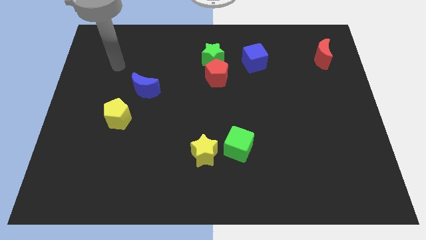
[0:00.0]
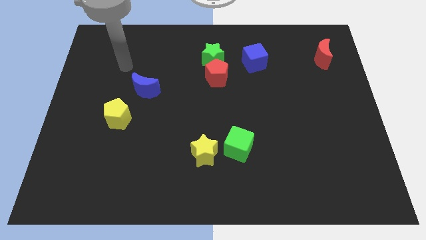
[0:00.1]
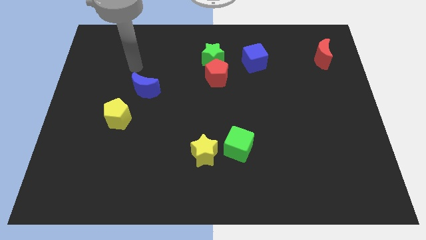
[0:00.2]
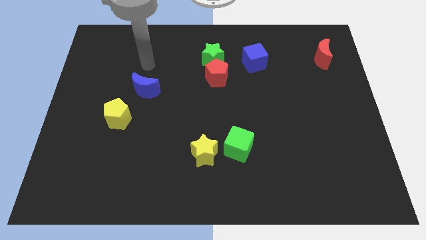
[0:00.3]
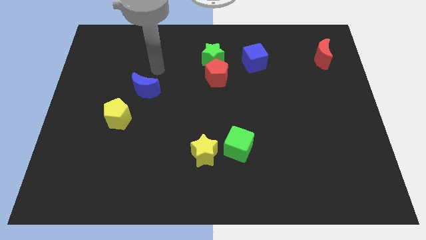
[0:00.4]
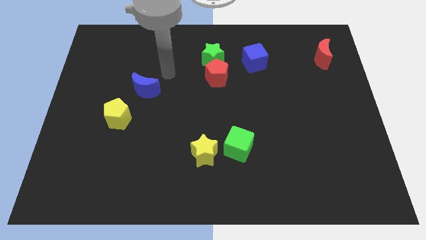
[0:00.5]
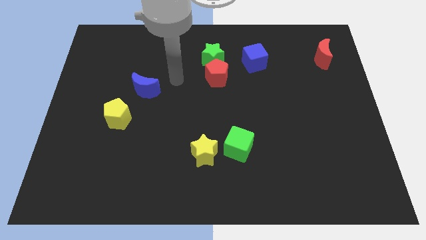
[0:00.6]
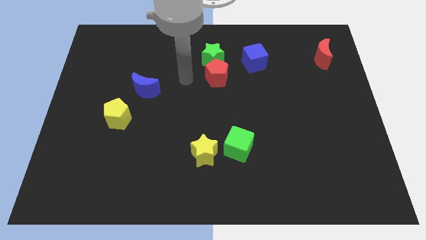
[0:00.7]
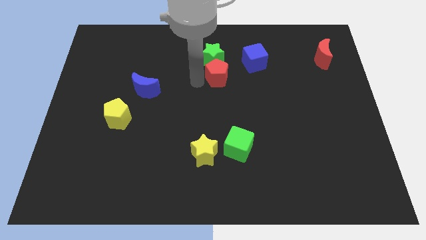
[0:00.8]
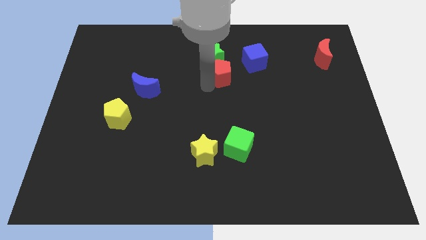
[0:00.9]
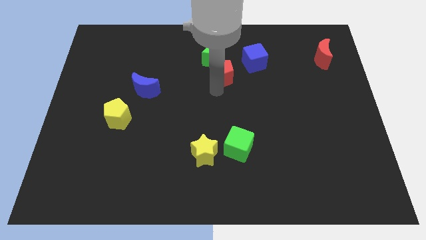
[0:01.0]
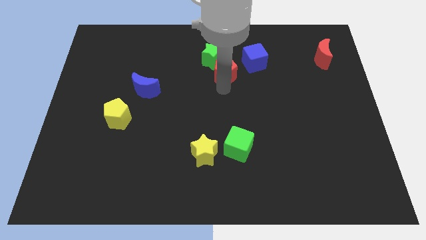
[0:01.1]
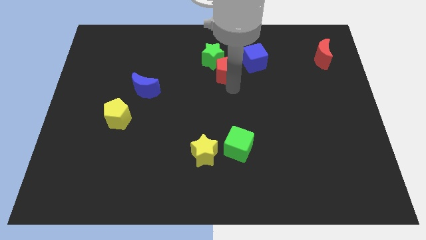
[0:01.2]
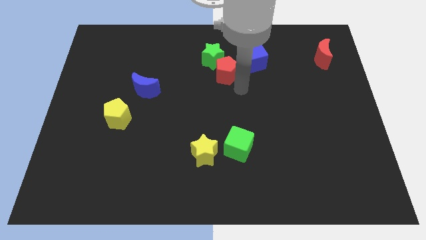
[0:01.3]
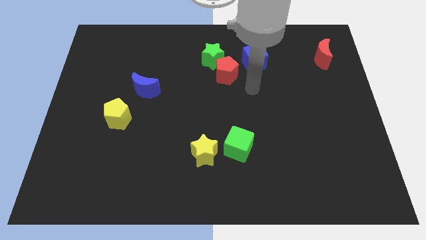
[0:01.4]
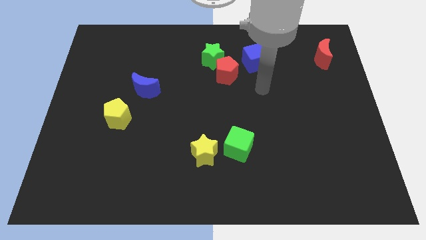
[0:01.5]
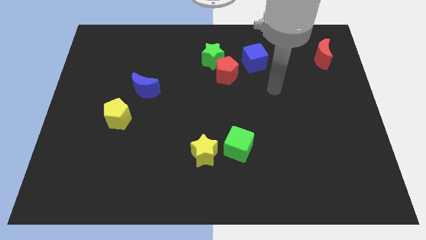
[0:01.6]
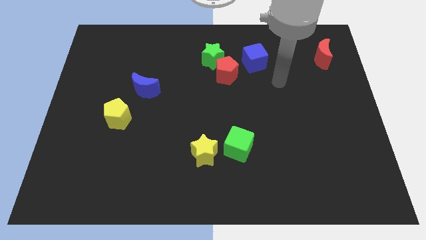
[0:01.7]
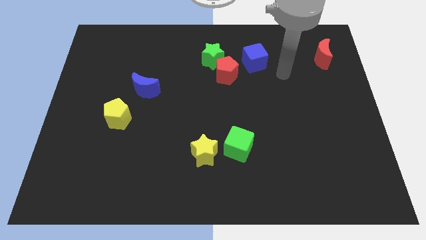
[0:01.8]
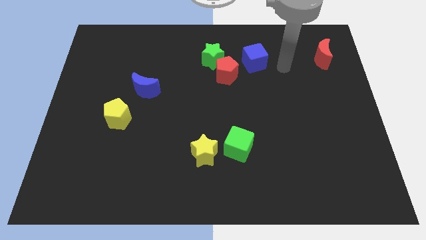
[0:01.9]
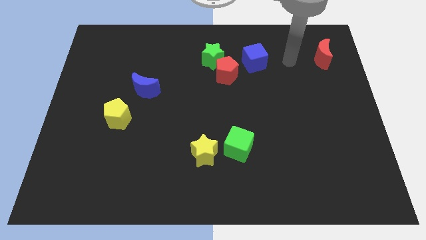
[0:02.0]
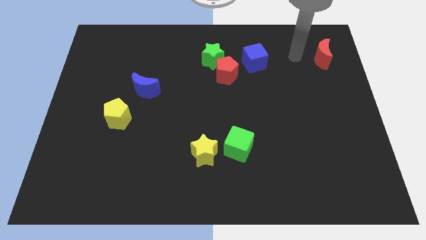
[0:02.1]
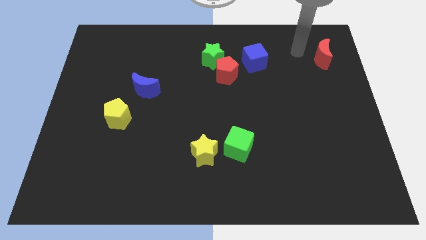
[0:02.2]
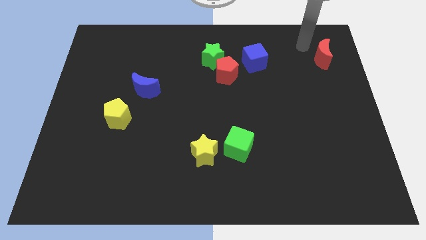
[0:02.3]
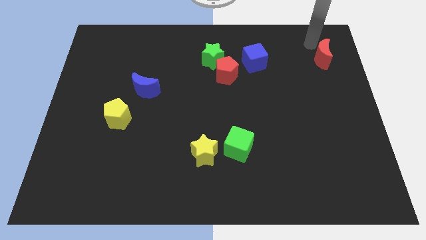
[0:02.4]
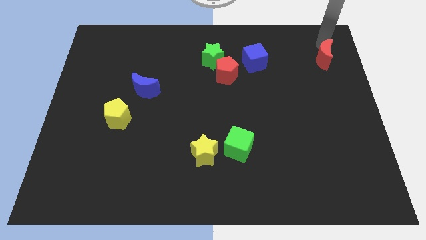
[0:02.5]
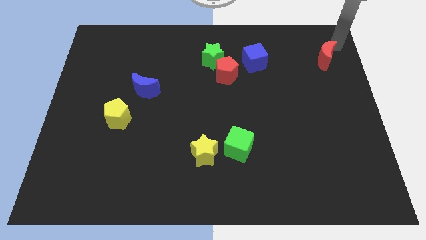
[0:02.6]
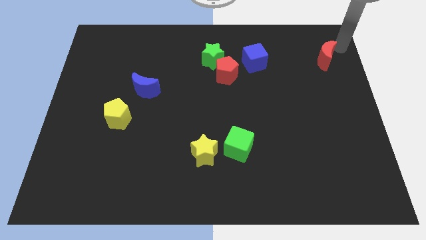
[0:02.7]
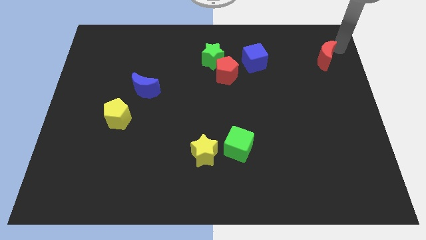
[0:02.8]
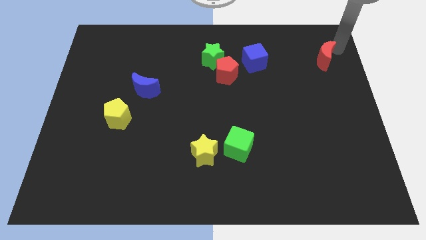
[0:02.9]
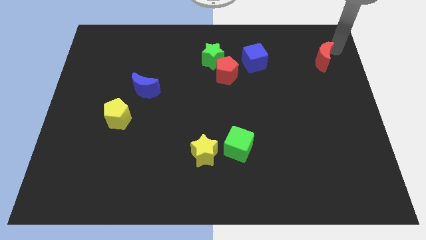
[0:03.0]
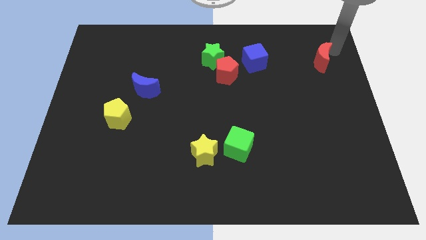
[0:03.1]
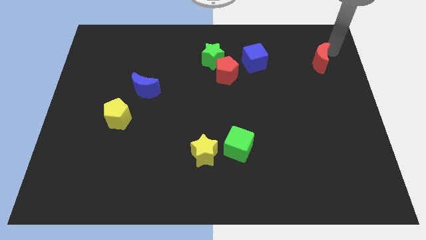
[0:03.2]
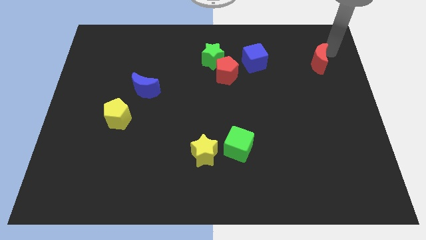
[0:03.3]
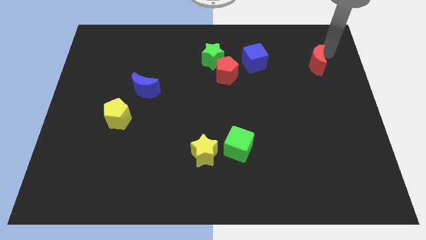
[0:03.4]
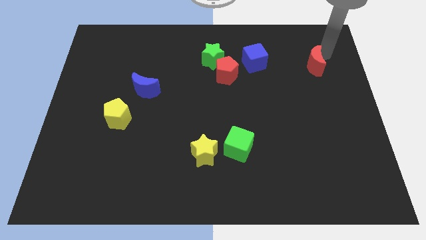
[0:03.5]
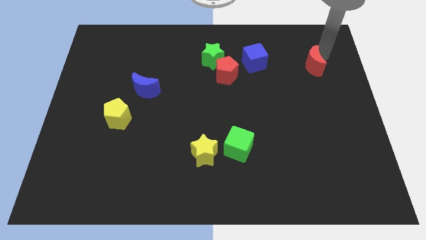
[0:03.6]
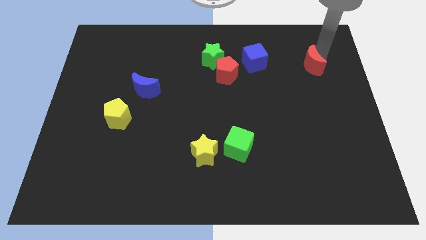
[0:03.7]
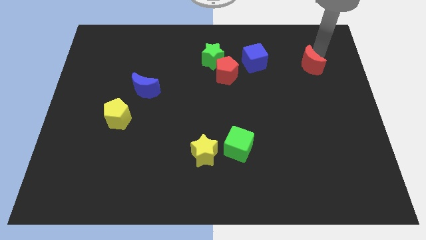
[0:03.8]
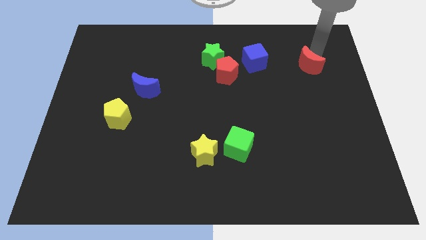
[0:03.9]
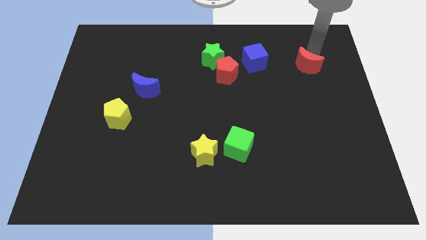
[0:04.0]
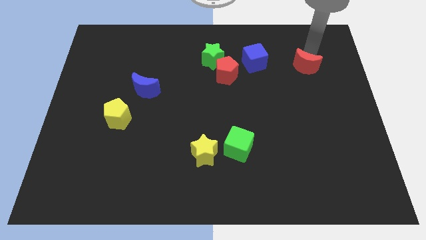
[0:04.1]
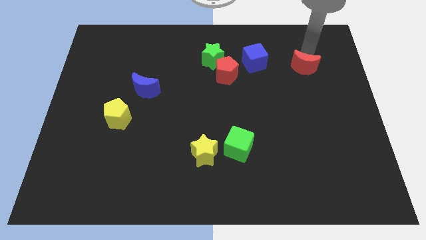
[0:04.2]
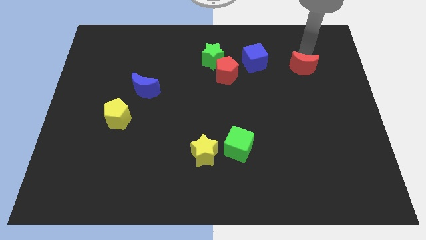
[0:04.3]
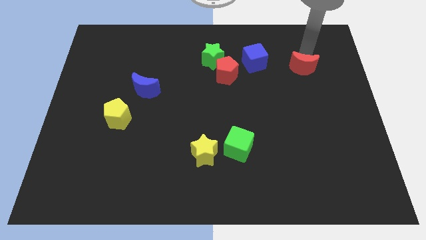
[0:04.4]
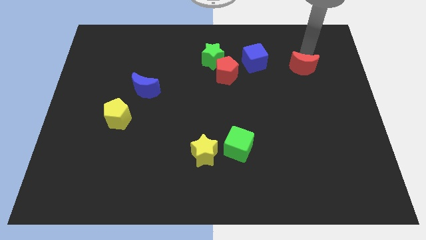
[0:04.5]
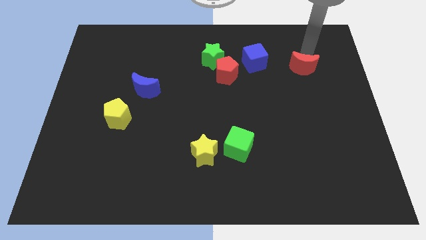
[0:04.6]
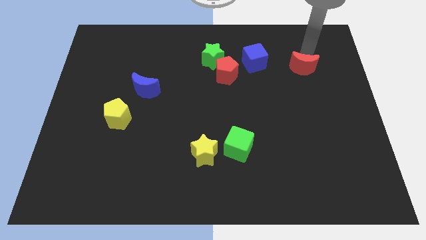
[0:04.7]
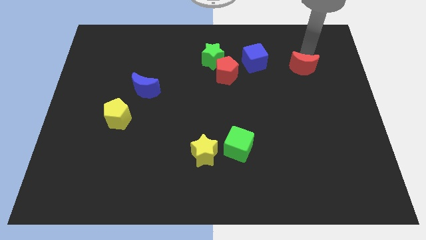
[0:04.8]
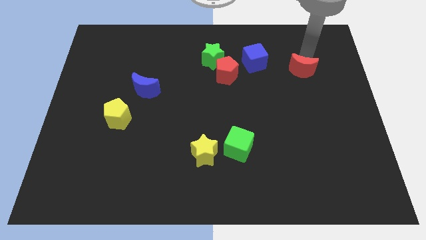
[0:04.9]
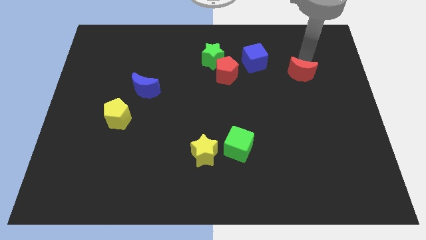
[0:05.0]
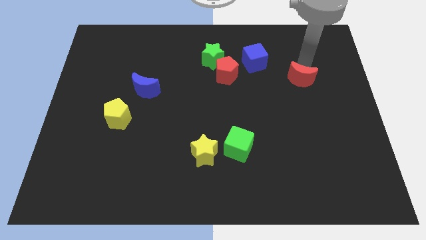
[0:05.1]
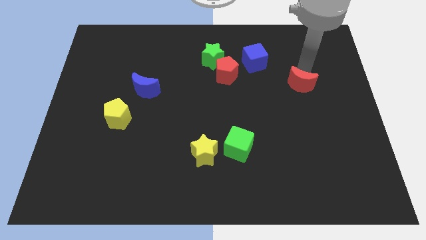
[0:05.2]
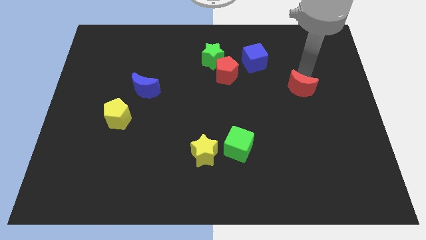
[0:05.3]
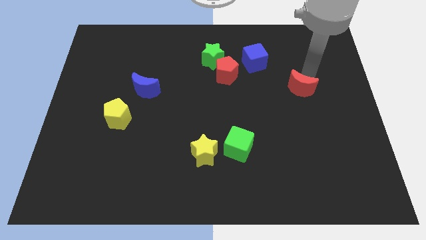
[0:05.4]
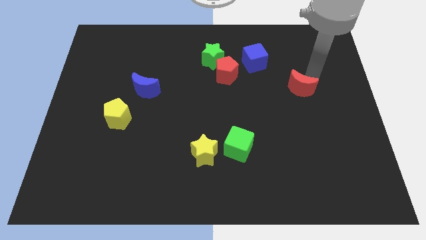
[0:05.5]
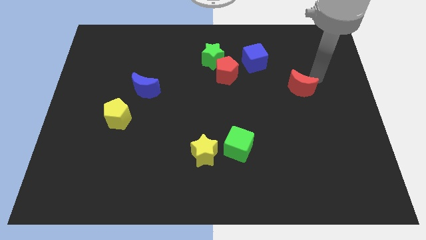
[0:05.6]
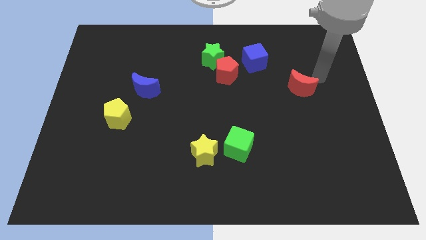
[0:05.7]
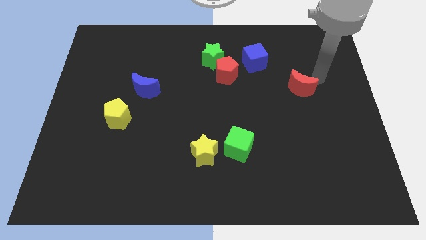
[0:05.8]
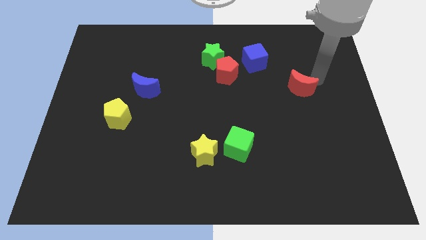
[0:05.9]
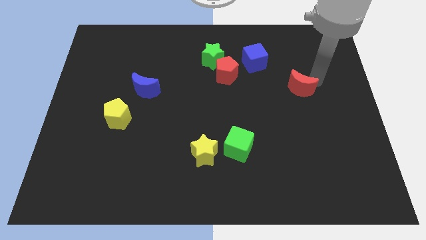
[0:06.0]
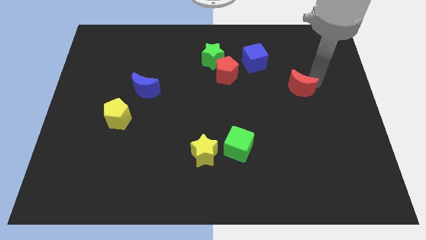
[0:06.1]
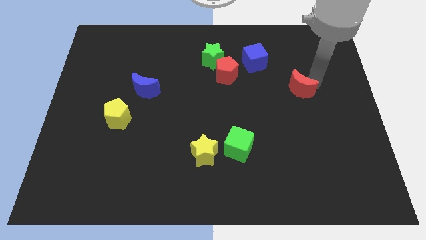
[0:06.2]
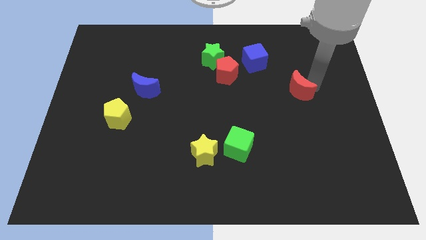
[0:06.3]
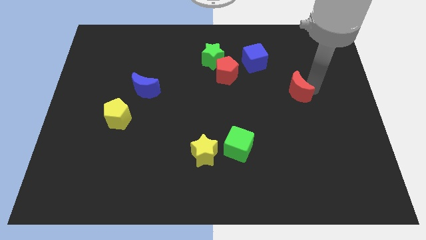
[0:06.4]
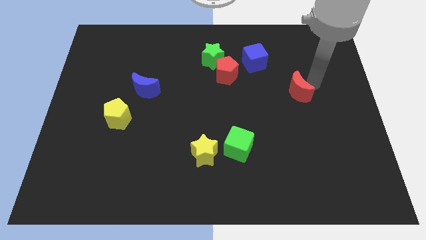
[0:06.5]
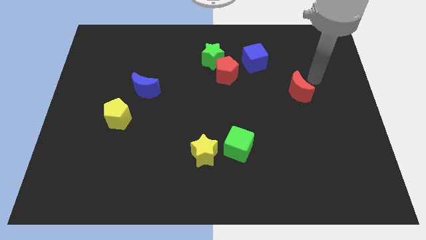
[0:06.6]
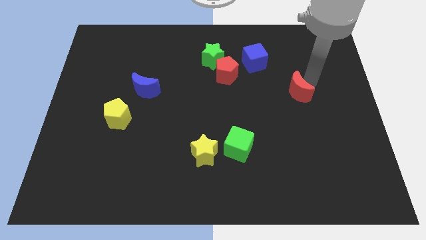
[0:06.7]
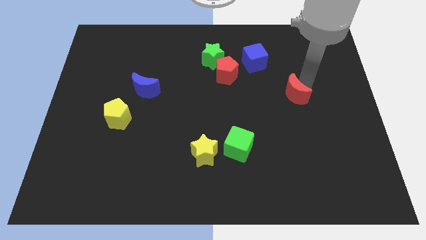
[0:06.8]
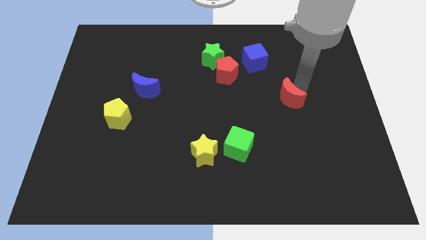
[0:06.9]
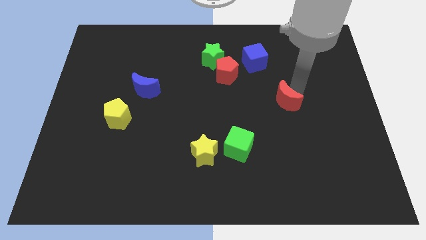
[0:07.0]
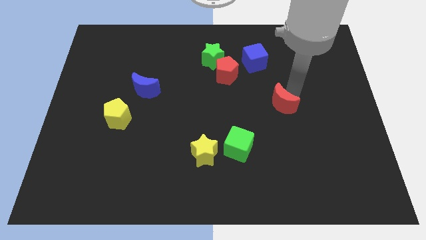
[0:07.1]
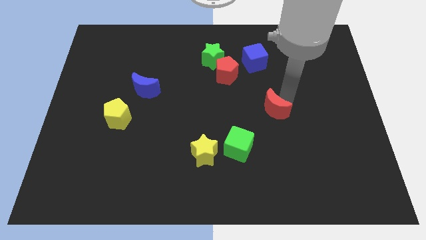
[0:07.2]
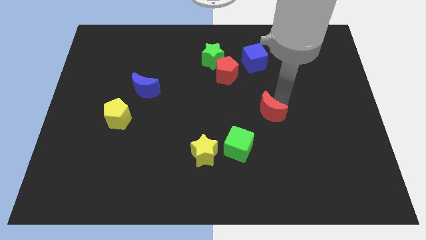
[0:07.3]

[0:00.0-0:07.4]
push the red moon to the top right of the green cube
